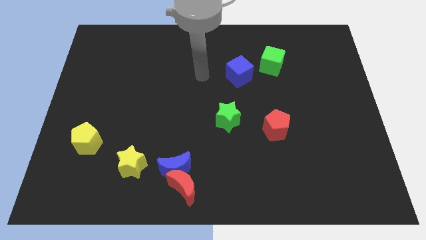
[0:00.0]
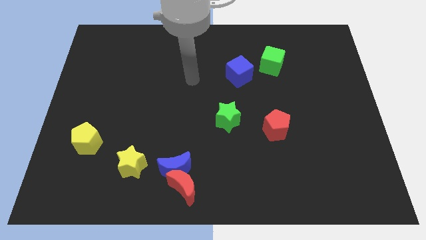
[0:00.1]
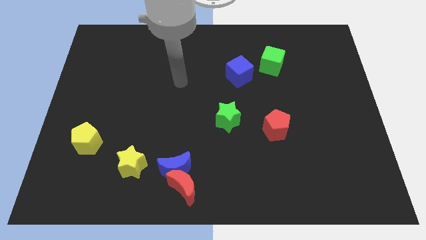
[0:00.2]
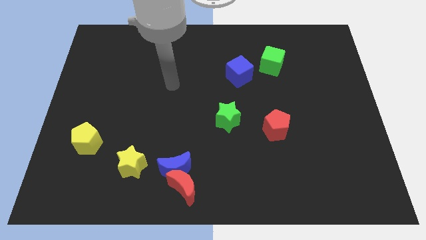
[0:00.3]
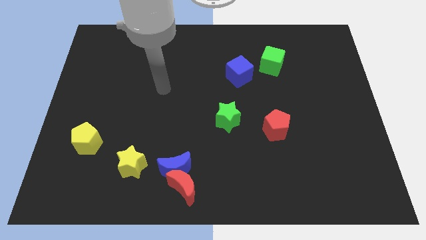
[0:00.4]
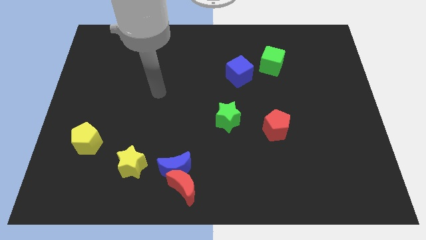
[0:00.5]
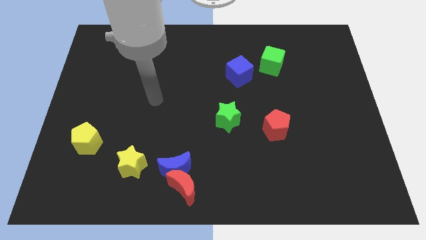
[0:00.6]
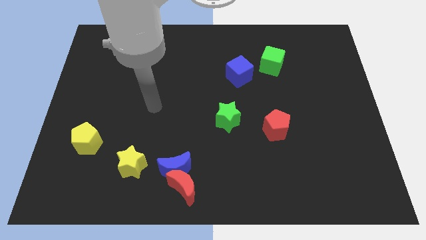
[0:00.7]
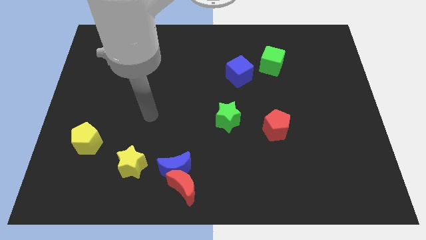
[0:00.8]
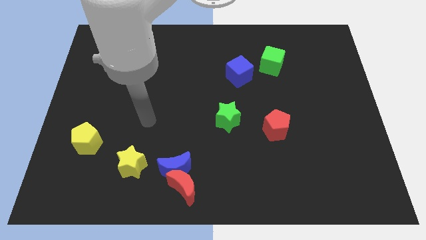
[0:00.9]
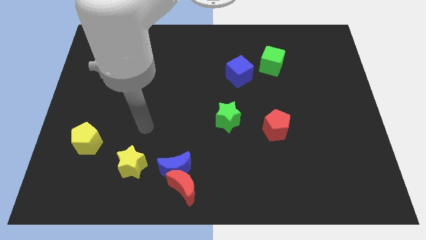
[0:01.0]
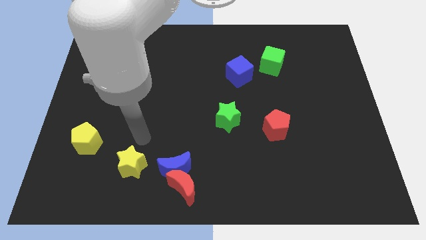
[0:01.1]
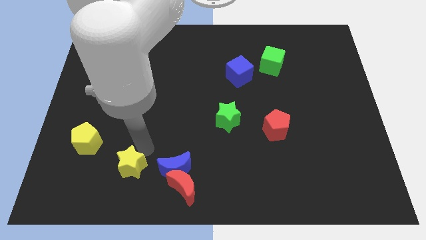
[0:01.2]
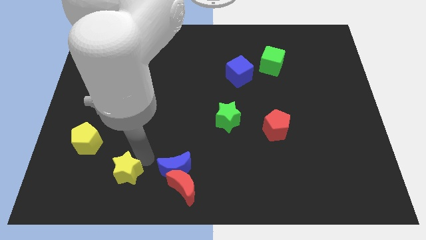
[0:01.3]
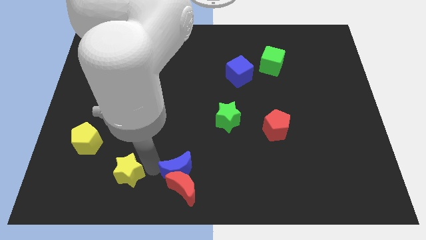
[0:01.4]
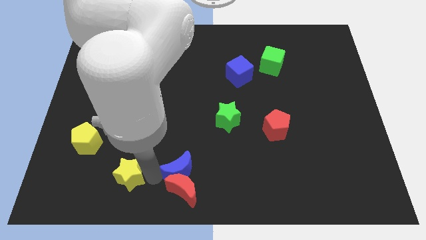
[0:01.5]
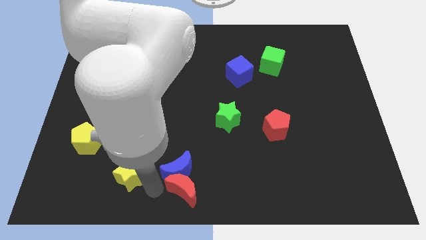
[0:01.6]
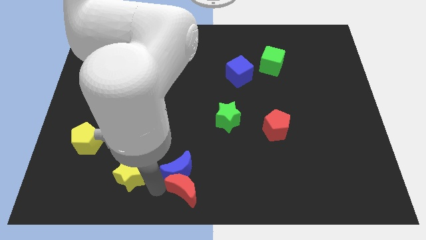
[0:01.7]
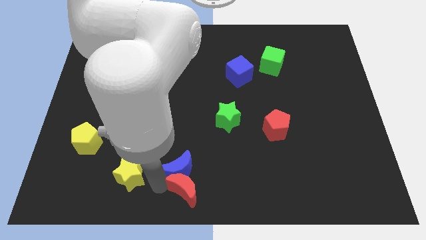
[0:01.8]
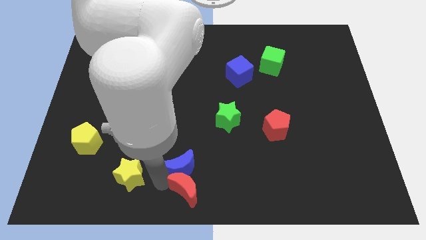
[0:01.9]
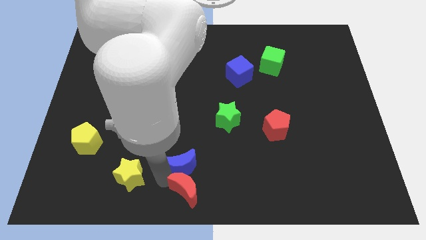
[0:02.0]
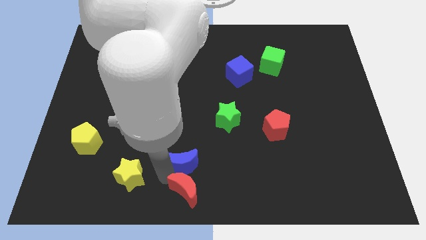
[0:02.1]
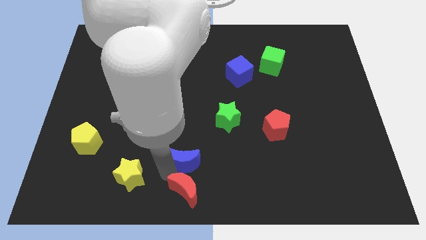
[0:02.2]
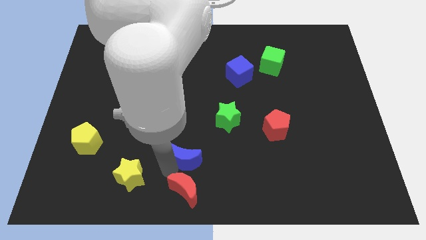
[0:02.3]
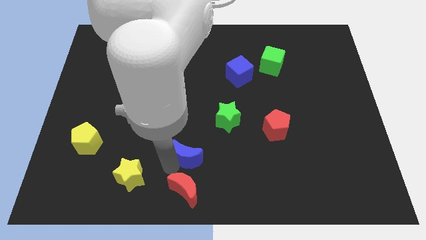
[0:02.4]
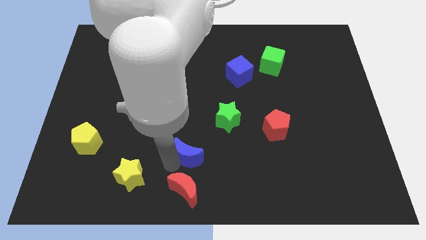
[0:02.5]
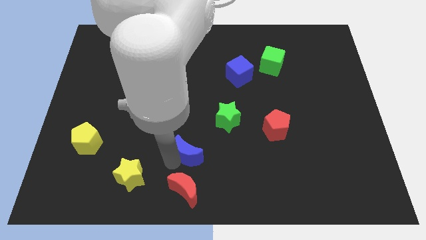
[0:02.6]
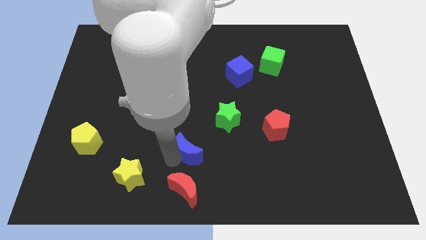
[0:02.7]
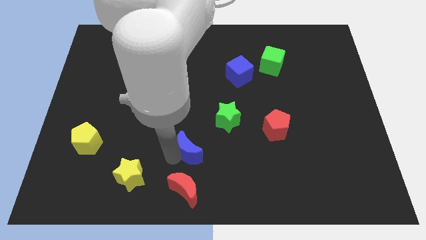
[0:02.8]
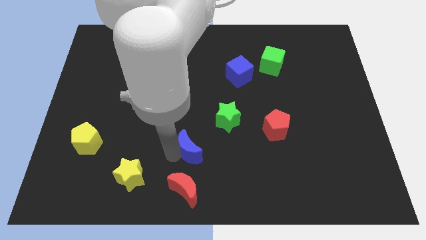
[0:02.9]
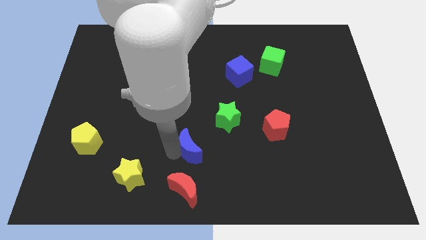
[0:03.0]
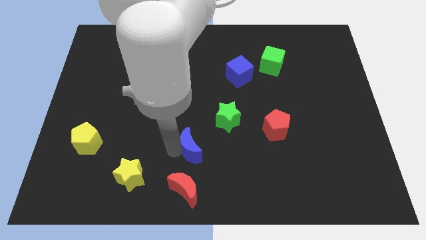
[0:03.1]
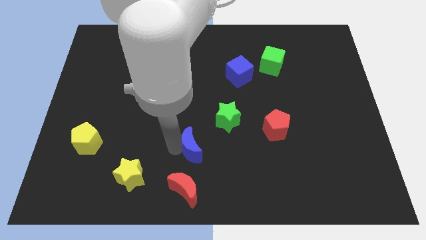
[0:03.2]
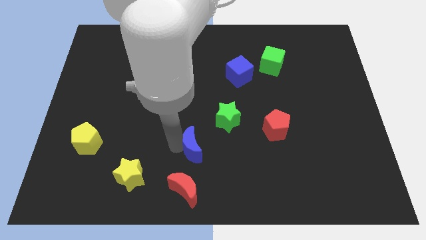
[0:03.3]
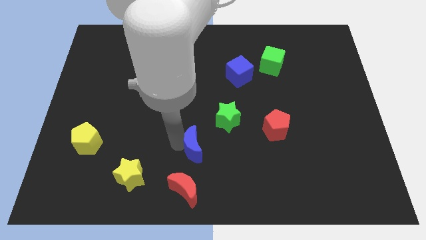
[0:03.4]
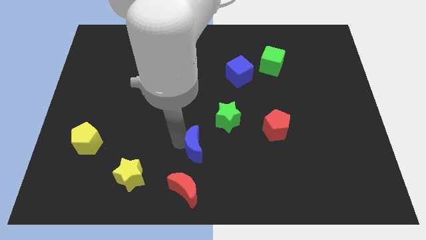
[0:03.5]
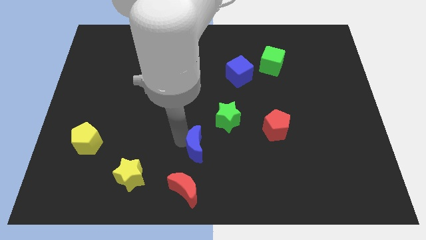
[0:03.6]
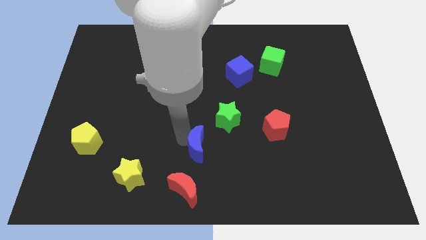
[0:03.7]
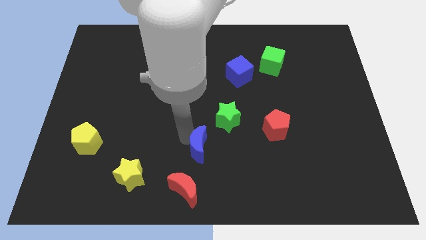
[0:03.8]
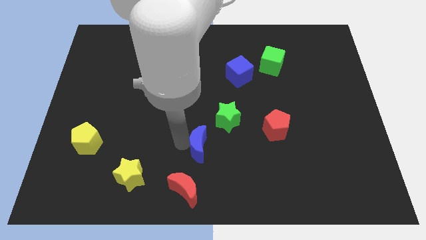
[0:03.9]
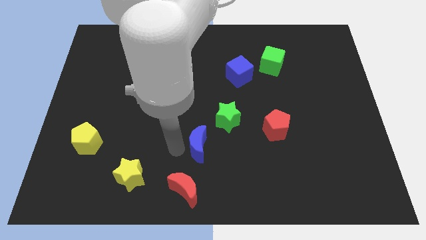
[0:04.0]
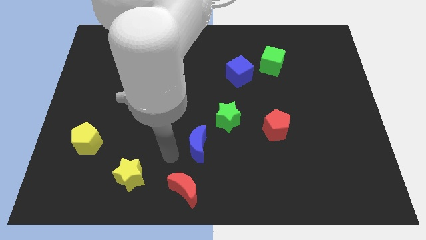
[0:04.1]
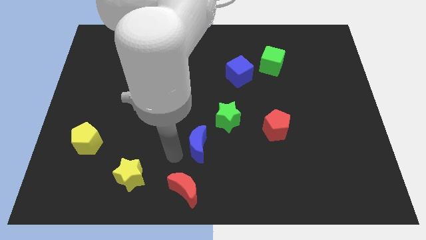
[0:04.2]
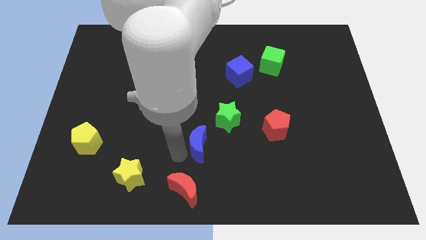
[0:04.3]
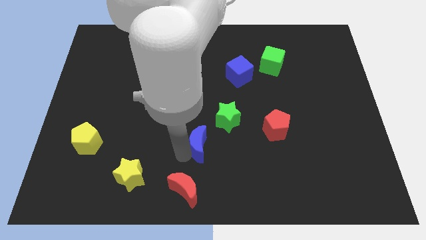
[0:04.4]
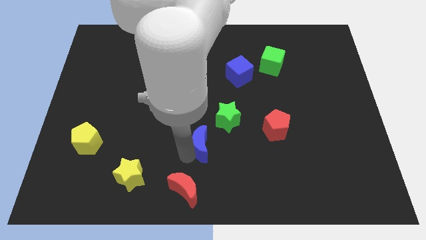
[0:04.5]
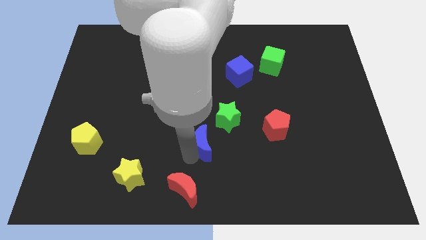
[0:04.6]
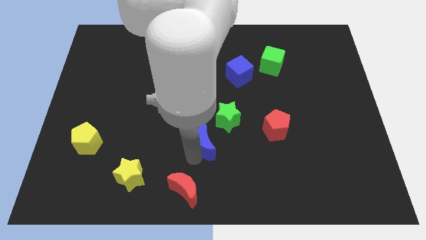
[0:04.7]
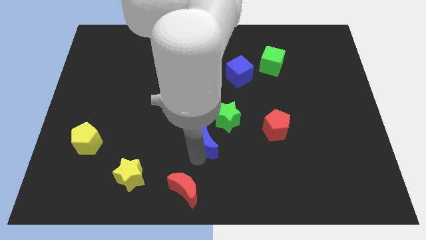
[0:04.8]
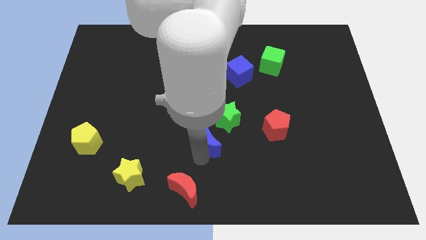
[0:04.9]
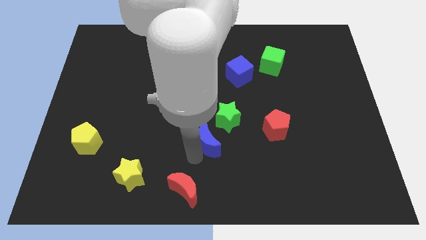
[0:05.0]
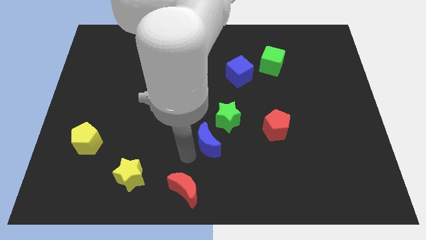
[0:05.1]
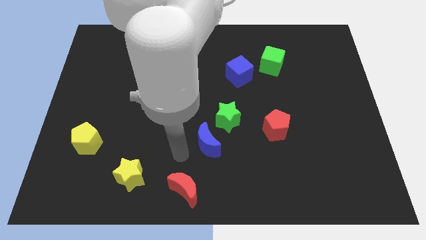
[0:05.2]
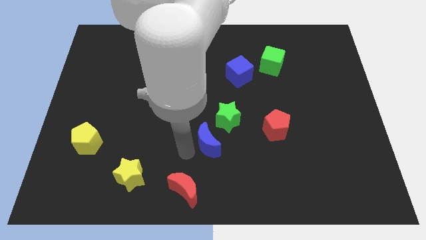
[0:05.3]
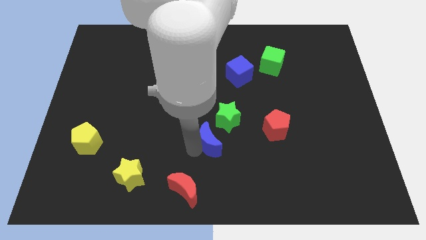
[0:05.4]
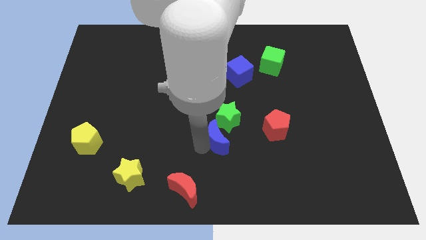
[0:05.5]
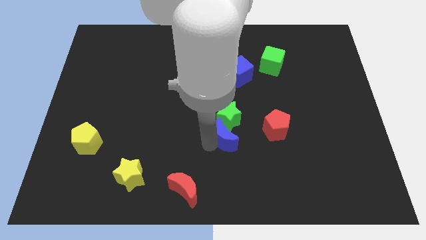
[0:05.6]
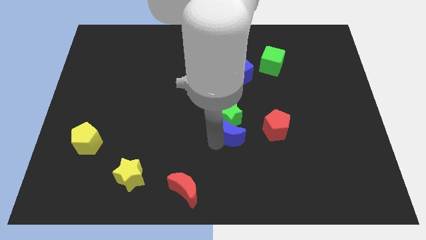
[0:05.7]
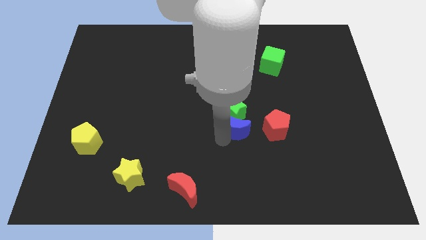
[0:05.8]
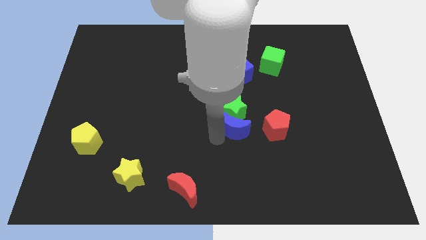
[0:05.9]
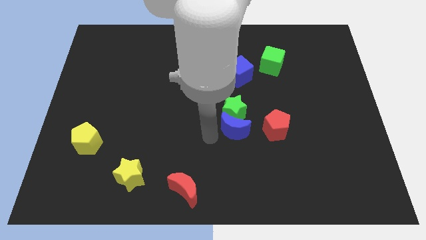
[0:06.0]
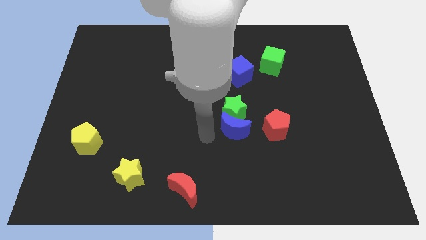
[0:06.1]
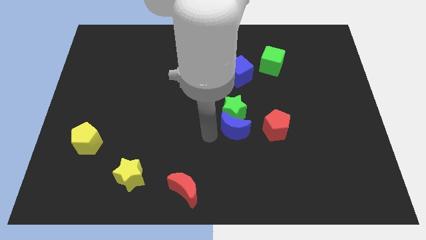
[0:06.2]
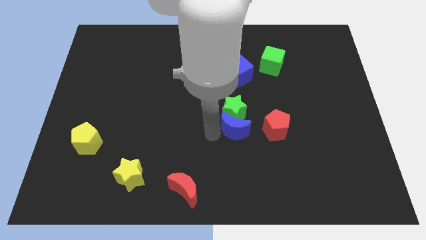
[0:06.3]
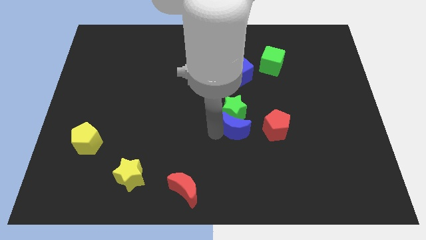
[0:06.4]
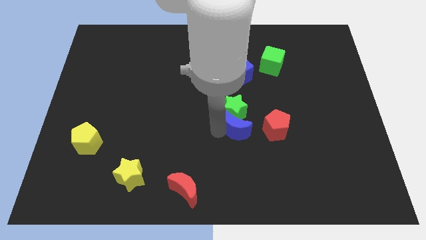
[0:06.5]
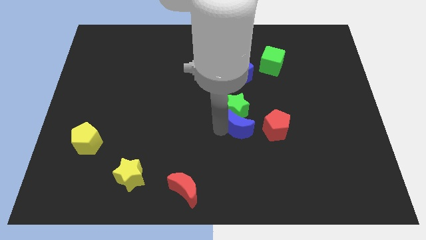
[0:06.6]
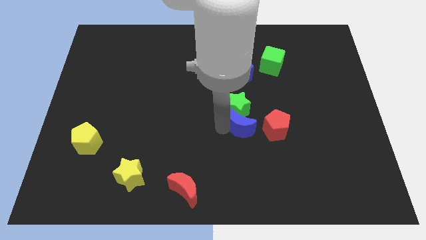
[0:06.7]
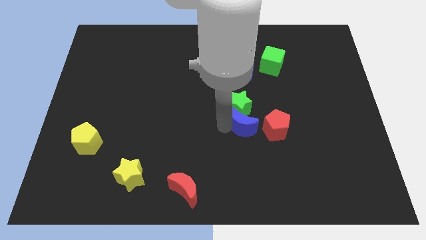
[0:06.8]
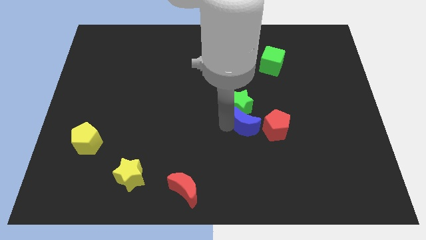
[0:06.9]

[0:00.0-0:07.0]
move the blue moon to the top left side of the red pentagon
